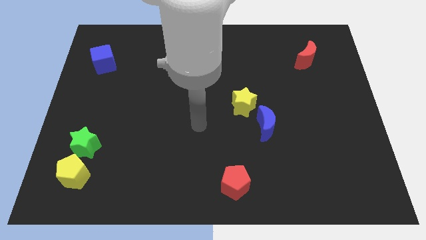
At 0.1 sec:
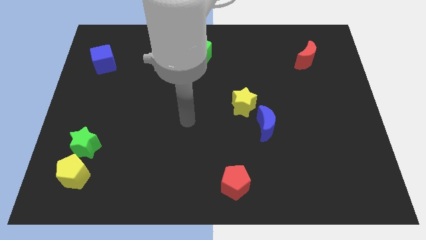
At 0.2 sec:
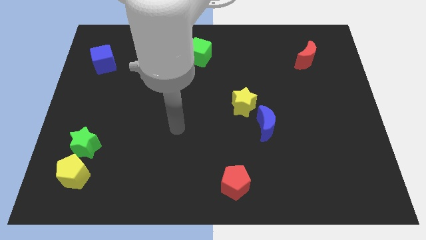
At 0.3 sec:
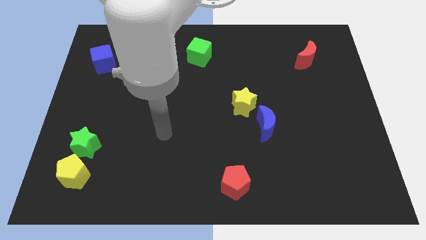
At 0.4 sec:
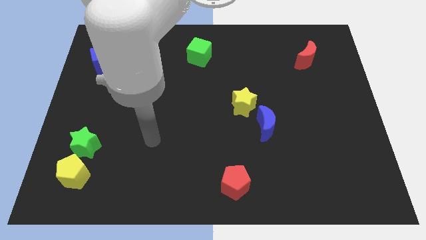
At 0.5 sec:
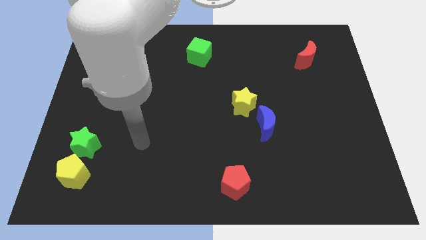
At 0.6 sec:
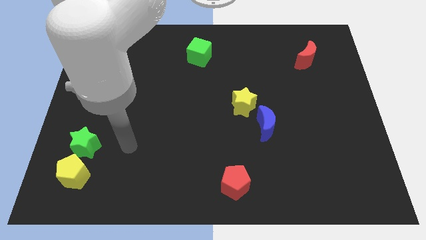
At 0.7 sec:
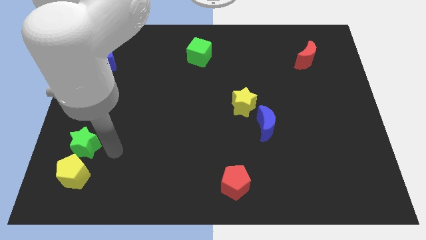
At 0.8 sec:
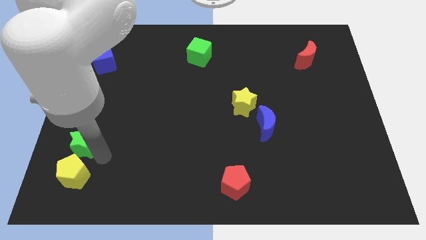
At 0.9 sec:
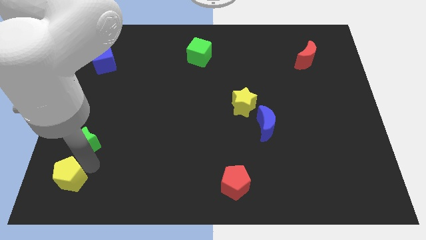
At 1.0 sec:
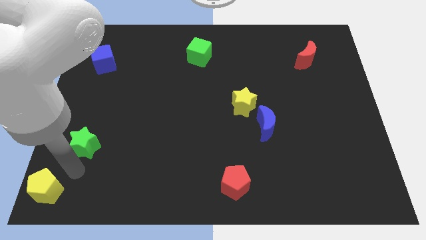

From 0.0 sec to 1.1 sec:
separate the green star from the yellow pentagon

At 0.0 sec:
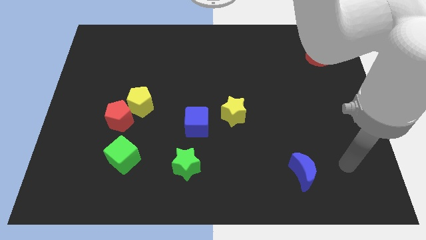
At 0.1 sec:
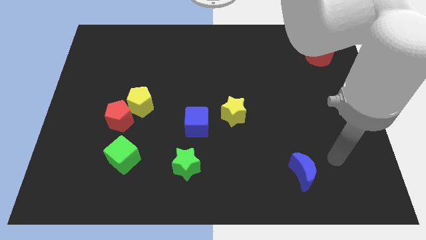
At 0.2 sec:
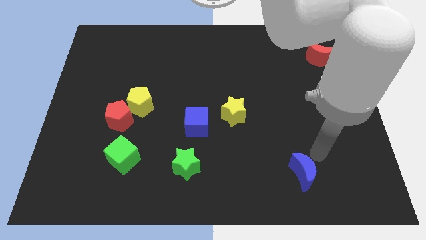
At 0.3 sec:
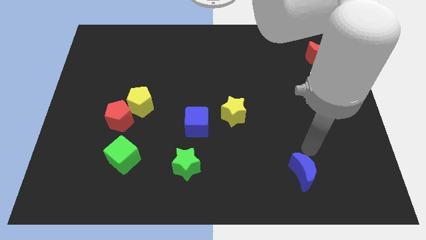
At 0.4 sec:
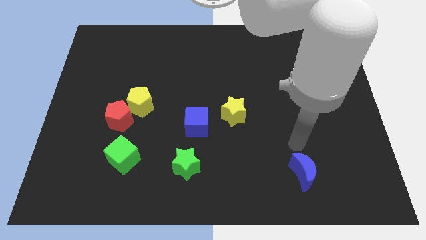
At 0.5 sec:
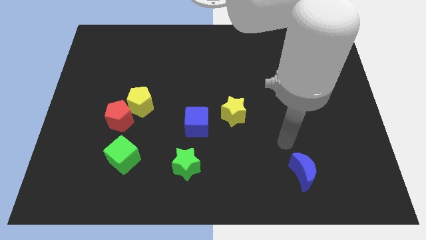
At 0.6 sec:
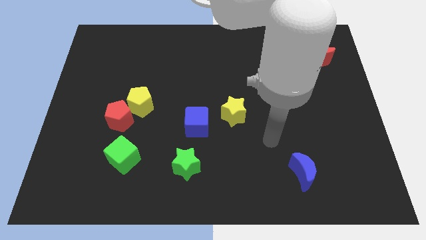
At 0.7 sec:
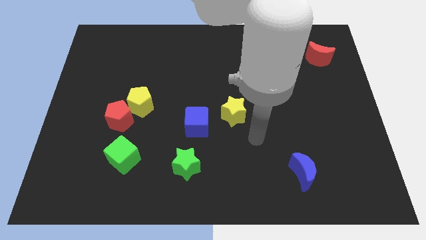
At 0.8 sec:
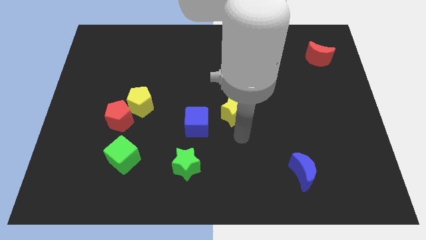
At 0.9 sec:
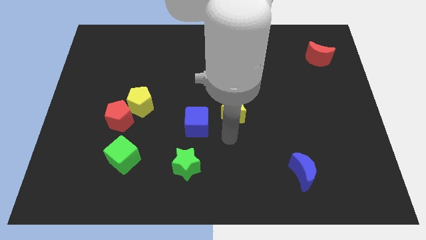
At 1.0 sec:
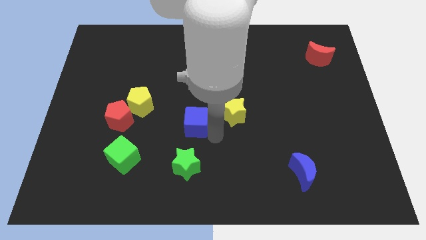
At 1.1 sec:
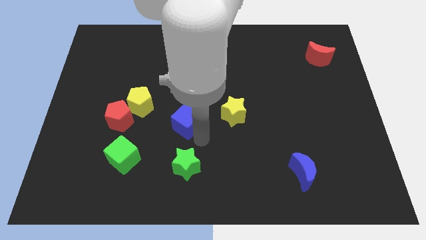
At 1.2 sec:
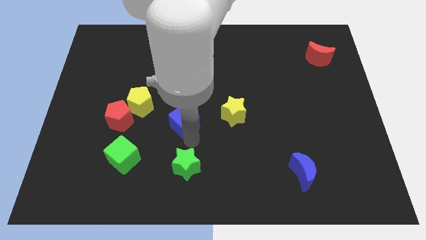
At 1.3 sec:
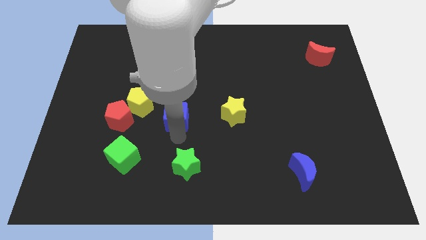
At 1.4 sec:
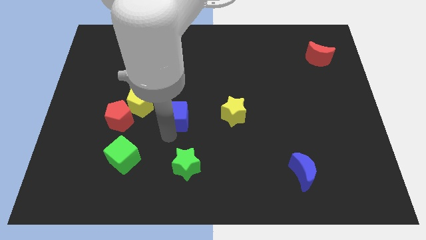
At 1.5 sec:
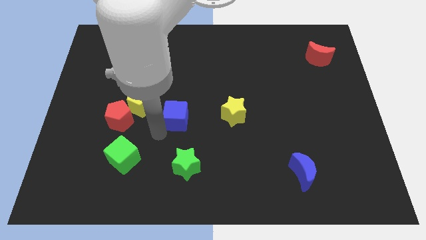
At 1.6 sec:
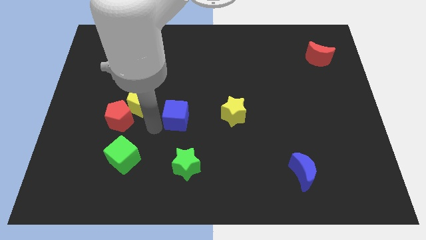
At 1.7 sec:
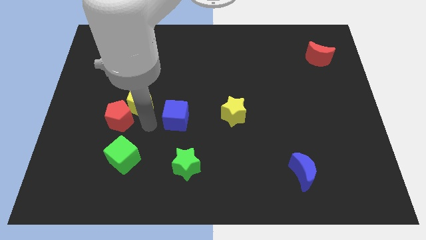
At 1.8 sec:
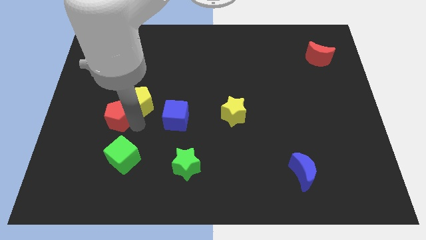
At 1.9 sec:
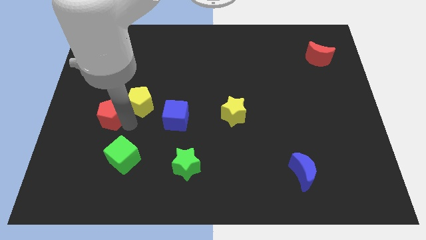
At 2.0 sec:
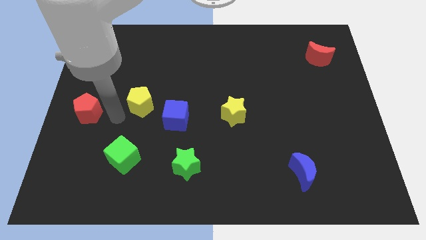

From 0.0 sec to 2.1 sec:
separate the yellow pentagon from the red pentagon

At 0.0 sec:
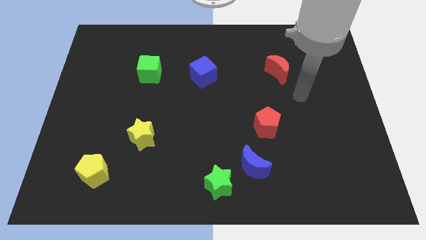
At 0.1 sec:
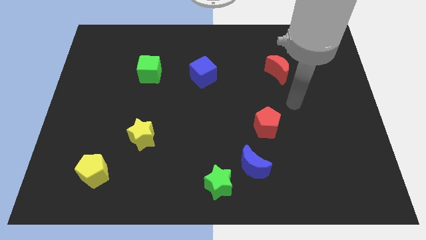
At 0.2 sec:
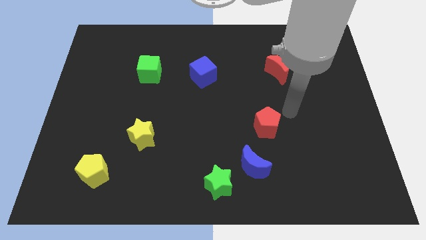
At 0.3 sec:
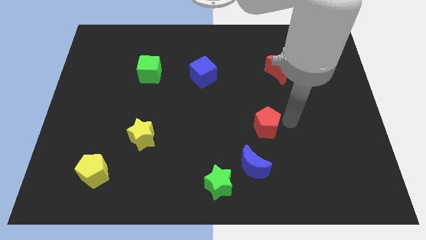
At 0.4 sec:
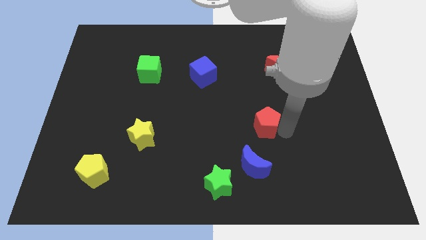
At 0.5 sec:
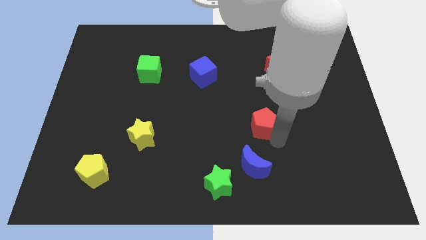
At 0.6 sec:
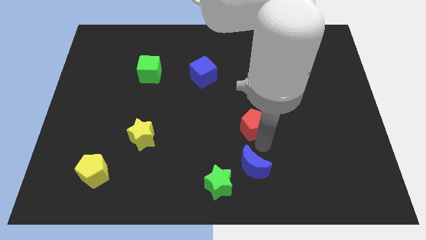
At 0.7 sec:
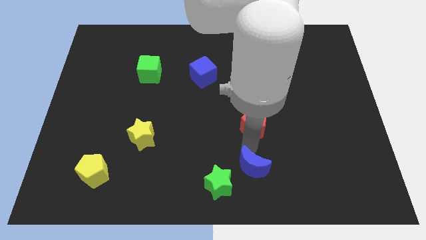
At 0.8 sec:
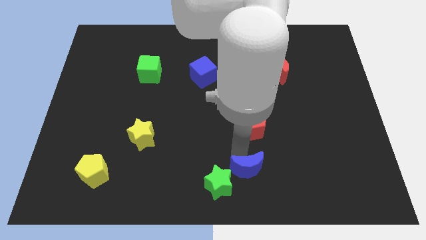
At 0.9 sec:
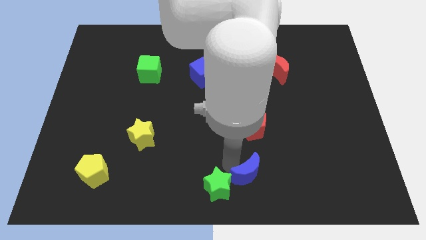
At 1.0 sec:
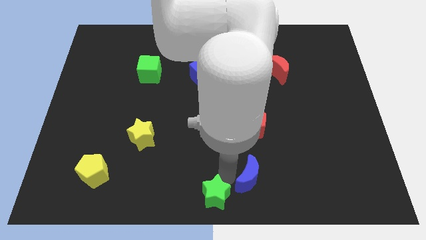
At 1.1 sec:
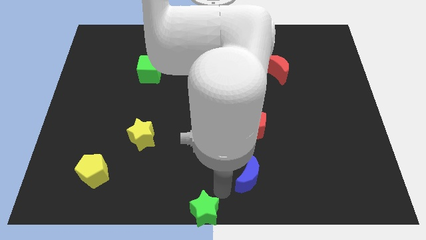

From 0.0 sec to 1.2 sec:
separate the blue moon from the green star

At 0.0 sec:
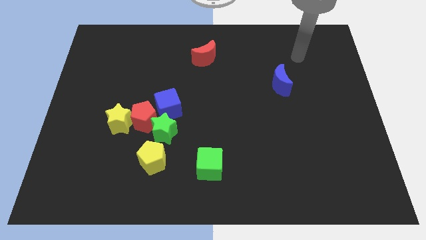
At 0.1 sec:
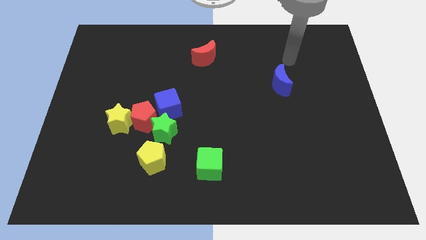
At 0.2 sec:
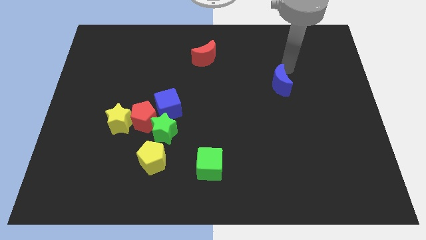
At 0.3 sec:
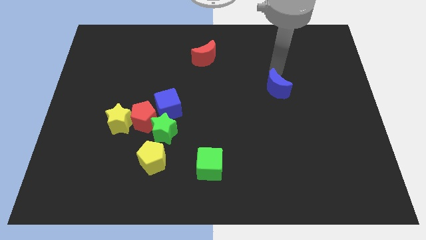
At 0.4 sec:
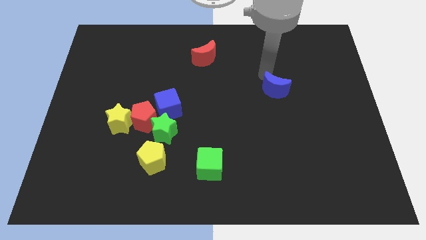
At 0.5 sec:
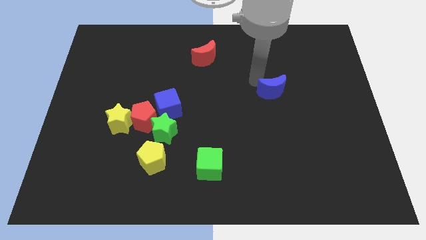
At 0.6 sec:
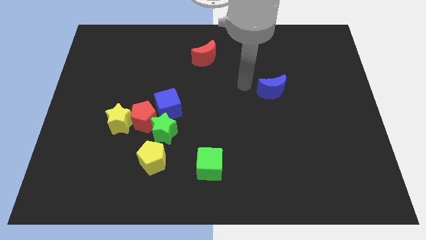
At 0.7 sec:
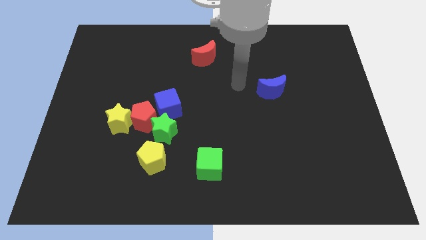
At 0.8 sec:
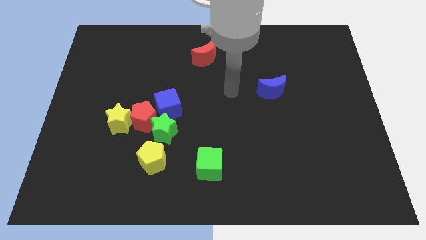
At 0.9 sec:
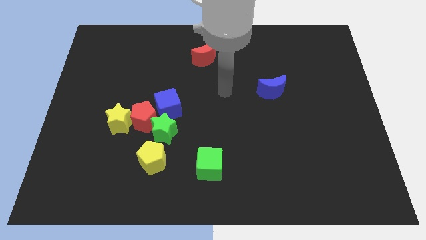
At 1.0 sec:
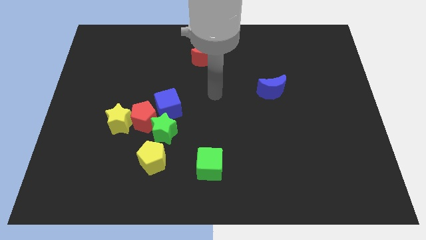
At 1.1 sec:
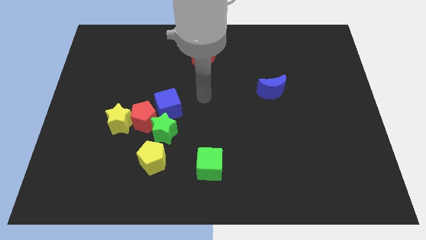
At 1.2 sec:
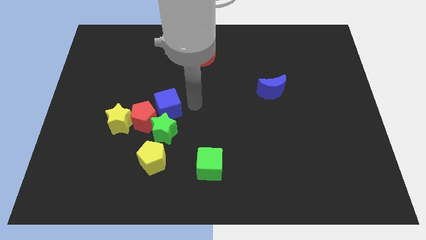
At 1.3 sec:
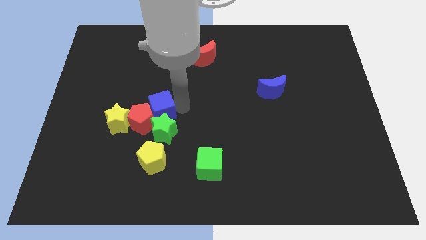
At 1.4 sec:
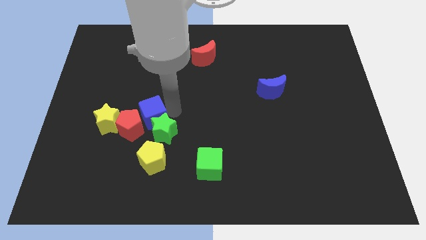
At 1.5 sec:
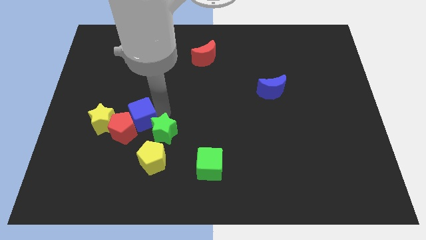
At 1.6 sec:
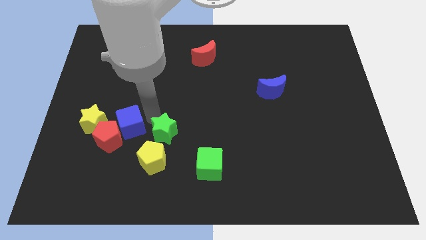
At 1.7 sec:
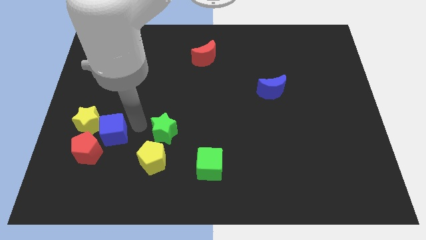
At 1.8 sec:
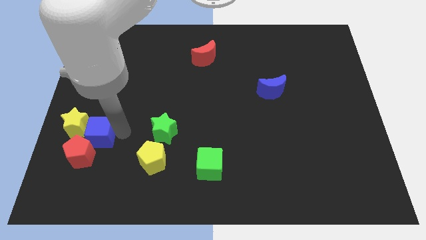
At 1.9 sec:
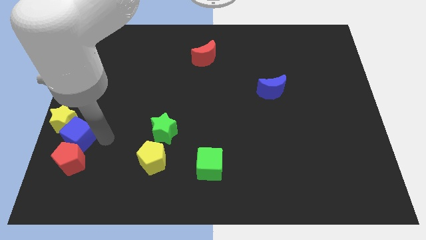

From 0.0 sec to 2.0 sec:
separate the yellow star from the red pentagon

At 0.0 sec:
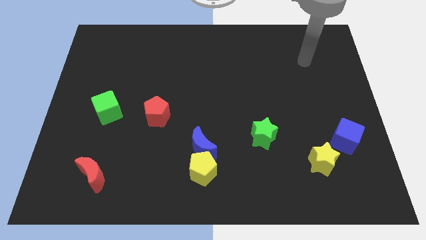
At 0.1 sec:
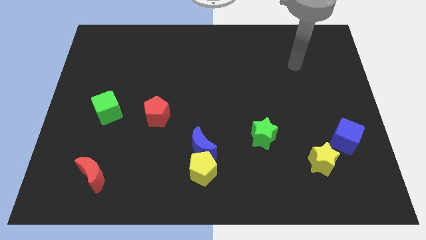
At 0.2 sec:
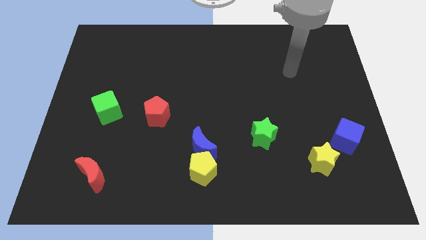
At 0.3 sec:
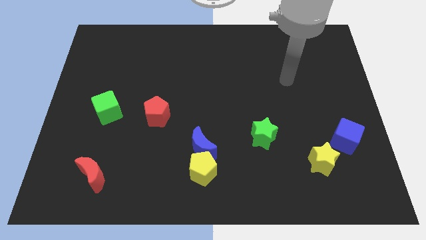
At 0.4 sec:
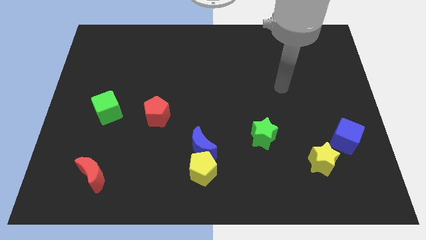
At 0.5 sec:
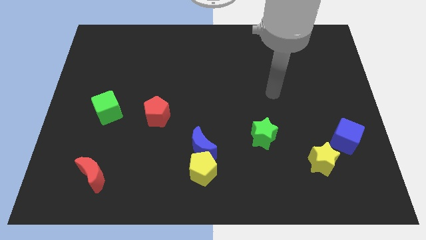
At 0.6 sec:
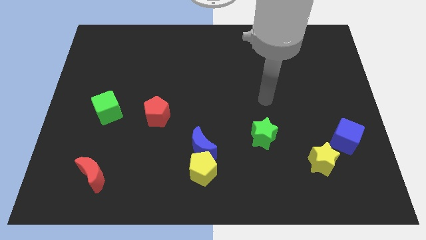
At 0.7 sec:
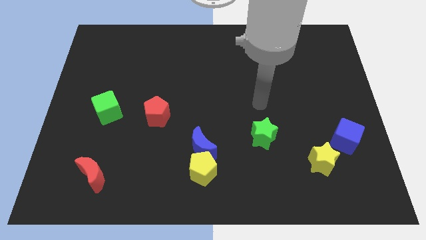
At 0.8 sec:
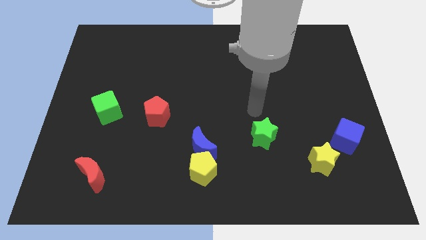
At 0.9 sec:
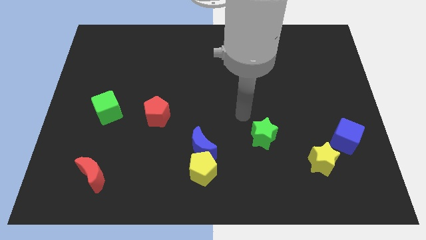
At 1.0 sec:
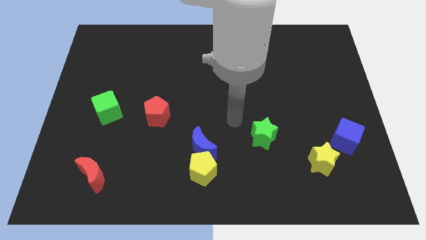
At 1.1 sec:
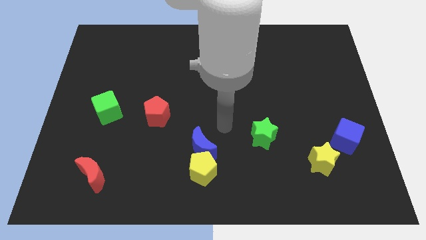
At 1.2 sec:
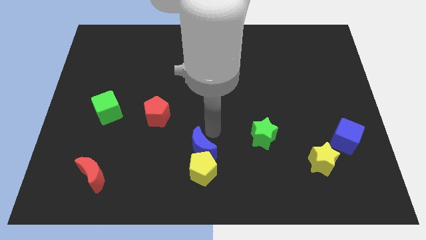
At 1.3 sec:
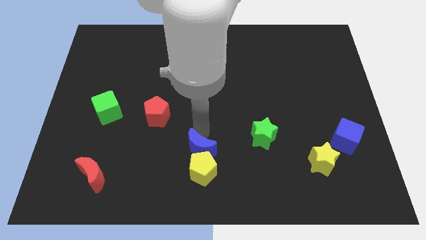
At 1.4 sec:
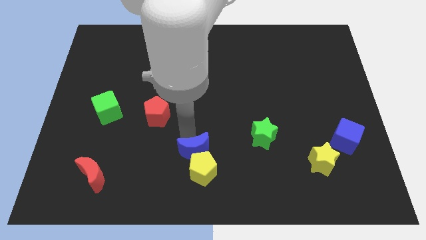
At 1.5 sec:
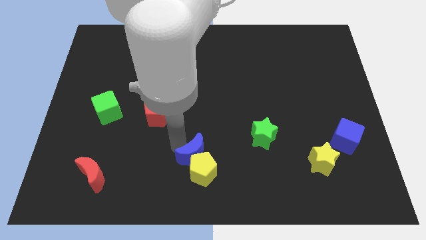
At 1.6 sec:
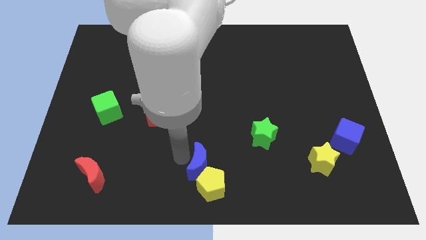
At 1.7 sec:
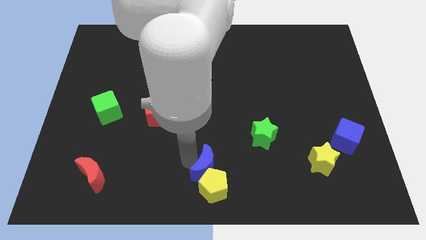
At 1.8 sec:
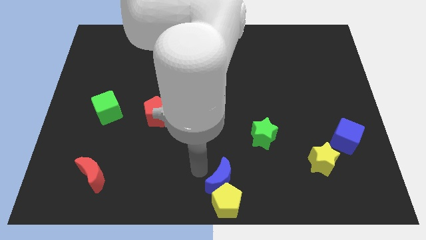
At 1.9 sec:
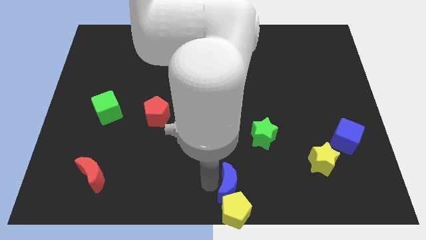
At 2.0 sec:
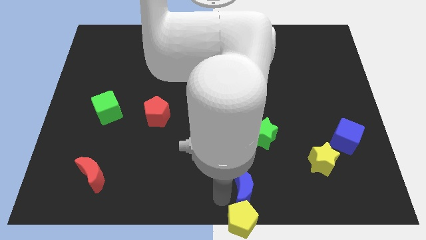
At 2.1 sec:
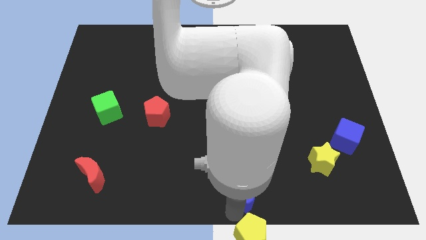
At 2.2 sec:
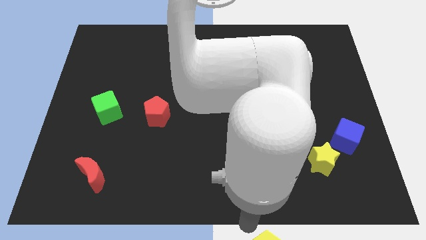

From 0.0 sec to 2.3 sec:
move the blue moon away from the yellow pentagon

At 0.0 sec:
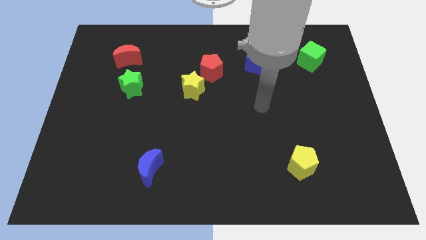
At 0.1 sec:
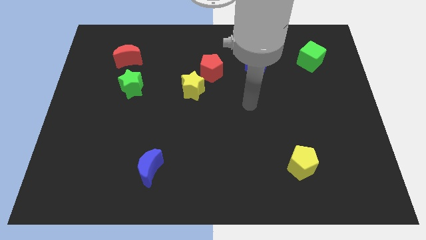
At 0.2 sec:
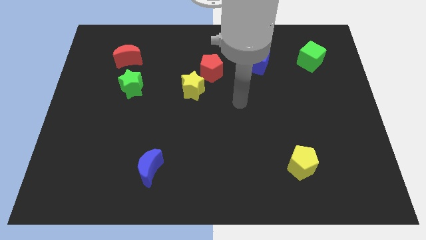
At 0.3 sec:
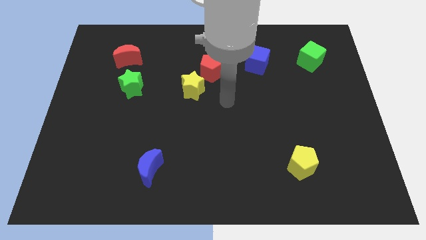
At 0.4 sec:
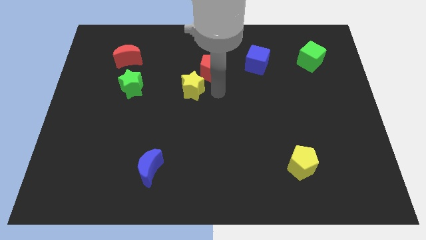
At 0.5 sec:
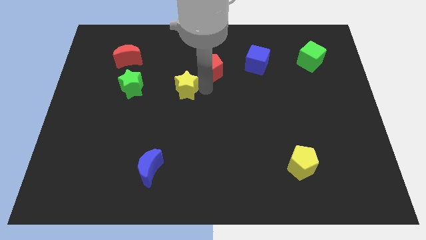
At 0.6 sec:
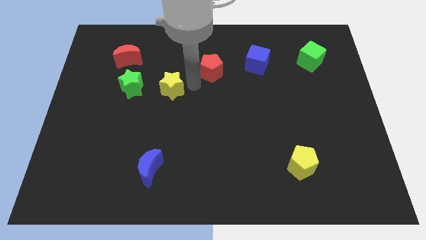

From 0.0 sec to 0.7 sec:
separate the red pentagon from the yellow star
